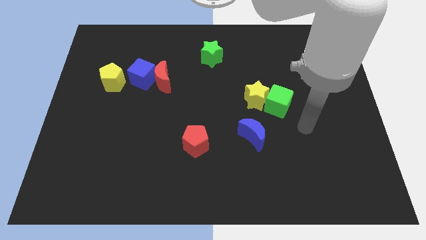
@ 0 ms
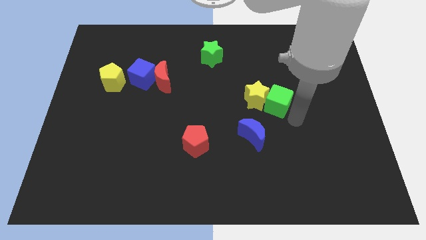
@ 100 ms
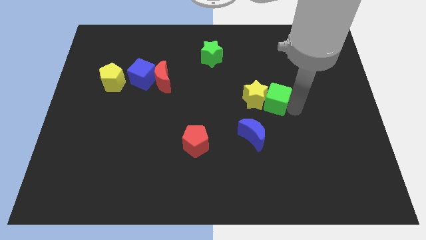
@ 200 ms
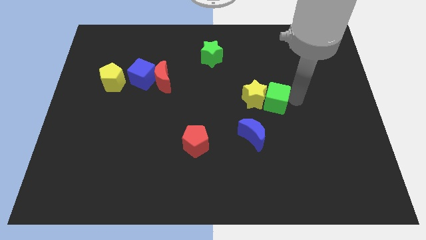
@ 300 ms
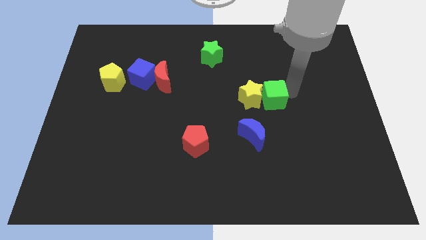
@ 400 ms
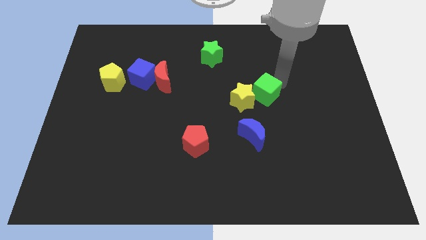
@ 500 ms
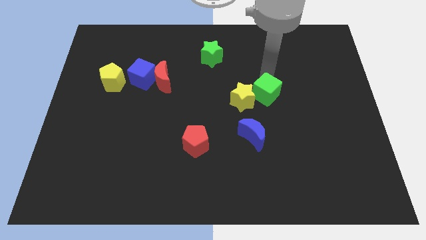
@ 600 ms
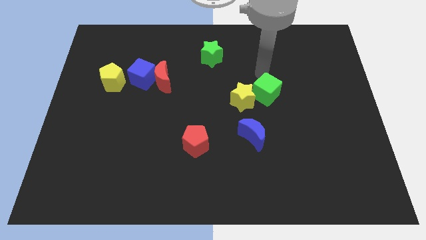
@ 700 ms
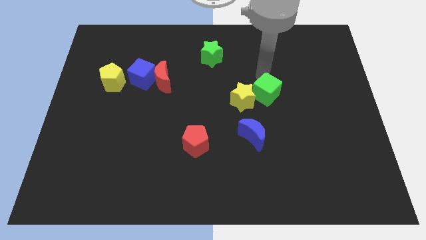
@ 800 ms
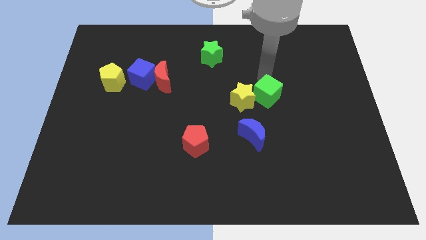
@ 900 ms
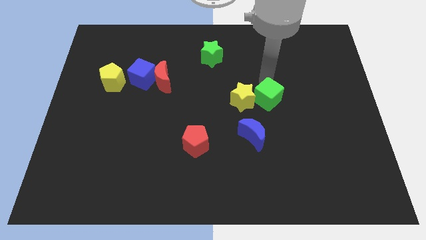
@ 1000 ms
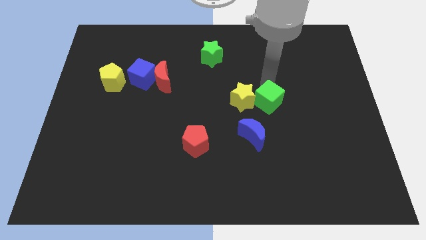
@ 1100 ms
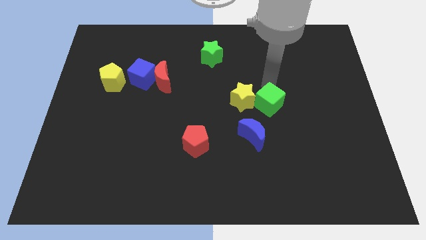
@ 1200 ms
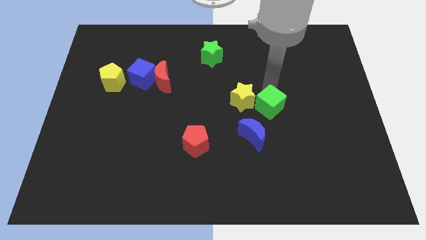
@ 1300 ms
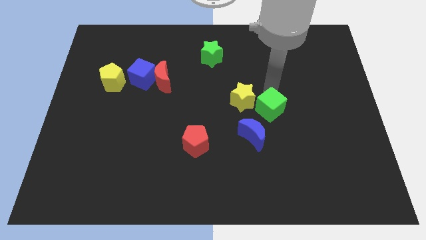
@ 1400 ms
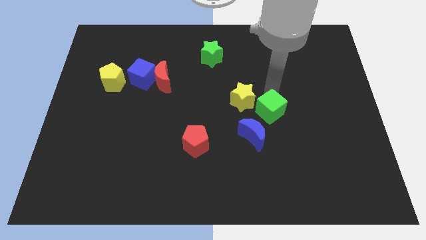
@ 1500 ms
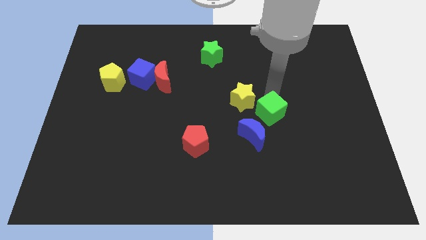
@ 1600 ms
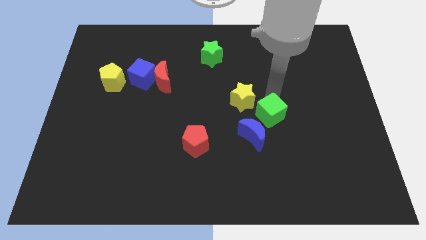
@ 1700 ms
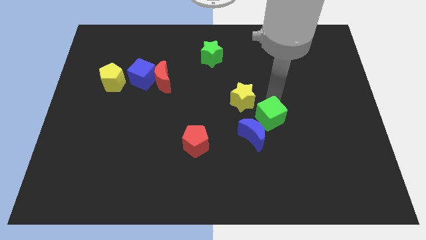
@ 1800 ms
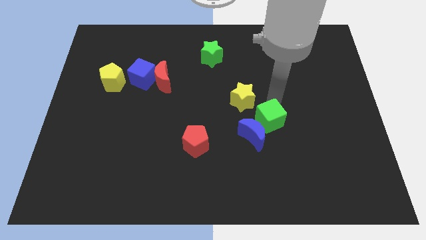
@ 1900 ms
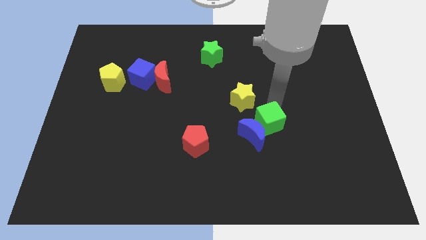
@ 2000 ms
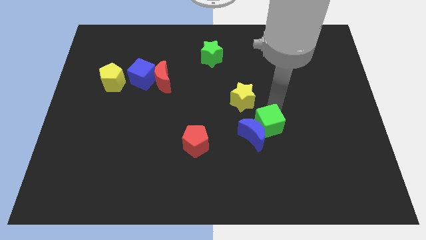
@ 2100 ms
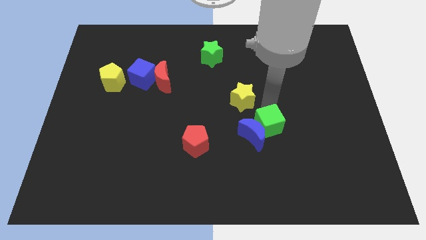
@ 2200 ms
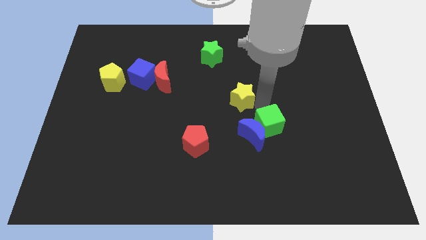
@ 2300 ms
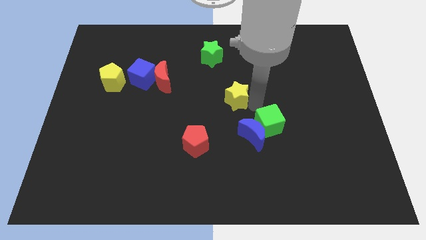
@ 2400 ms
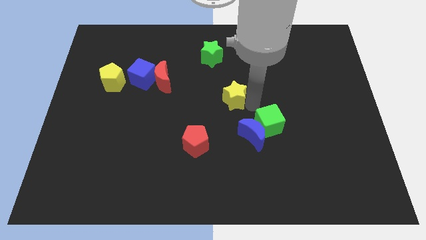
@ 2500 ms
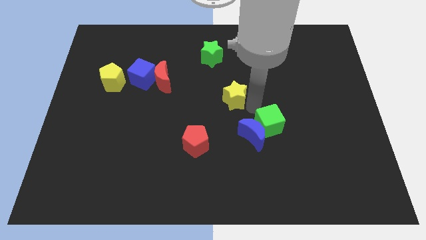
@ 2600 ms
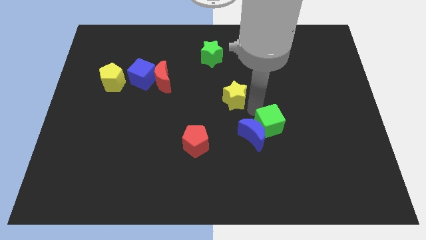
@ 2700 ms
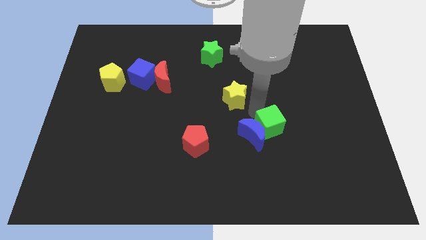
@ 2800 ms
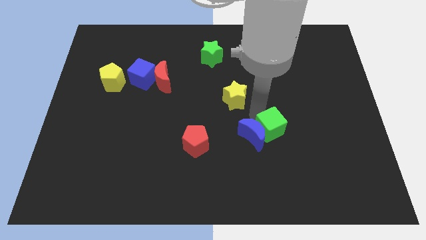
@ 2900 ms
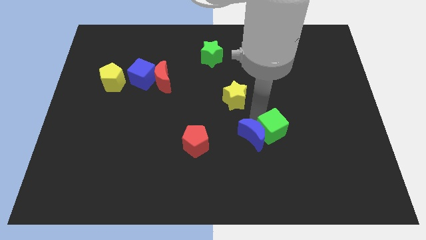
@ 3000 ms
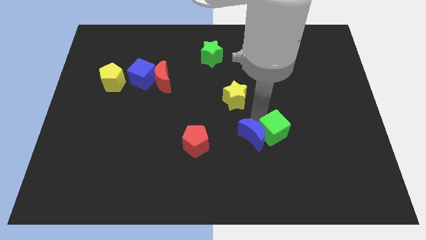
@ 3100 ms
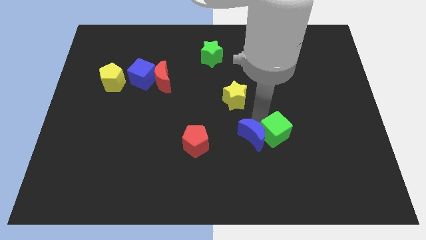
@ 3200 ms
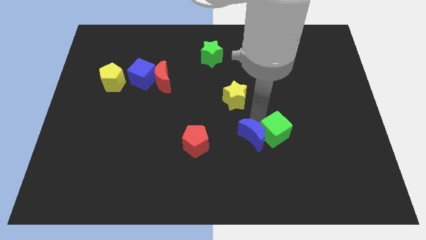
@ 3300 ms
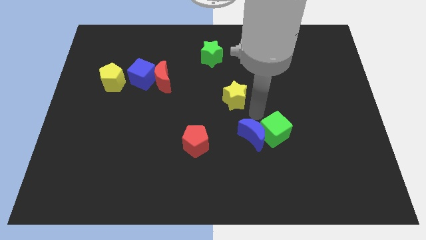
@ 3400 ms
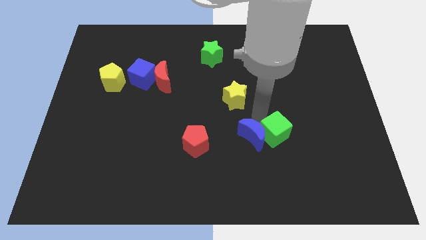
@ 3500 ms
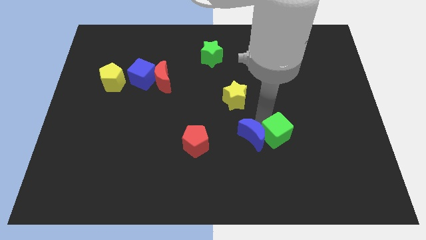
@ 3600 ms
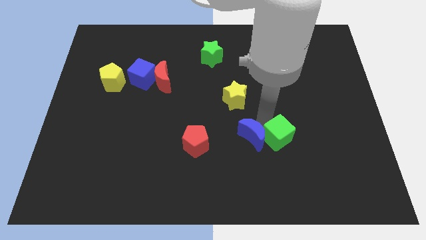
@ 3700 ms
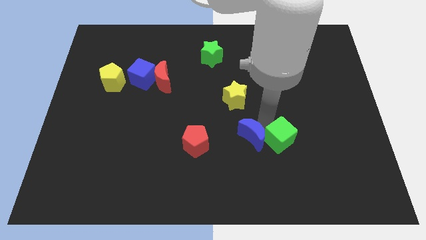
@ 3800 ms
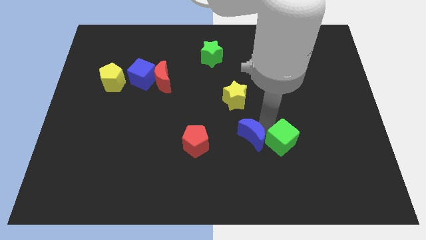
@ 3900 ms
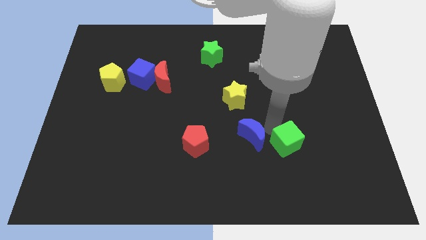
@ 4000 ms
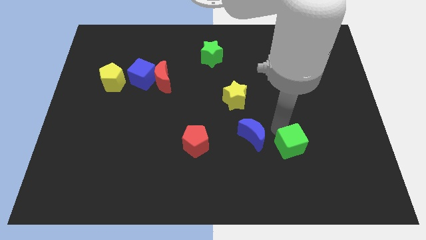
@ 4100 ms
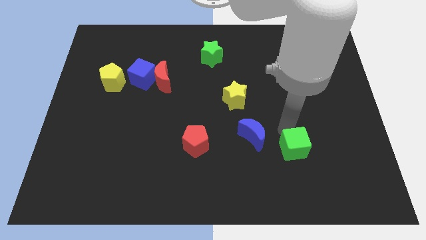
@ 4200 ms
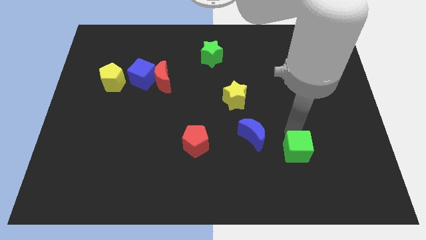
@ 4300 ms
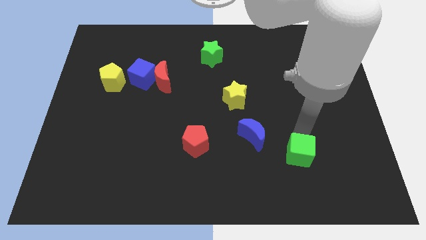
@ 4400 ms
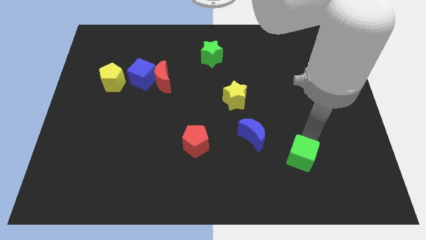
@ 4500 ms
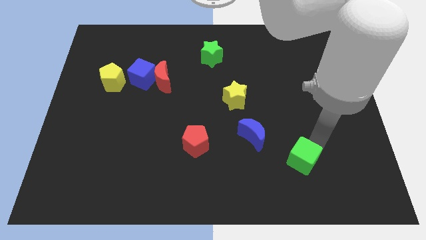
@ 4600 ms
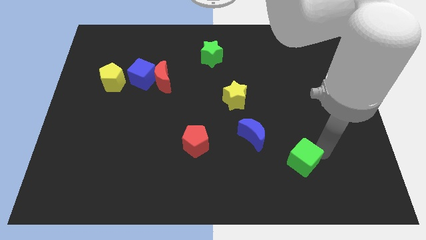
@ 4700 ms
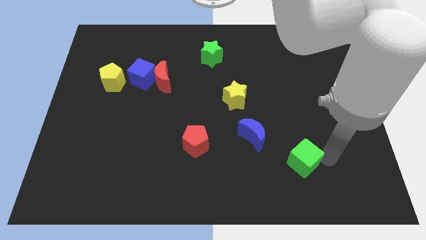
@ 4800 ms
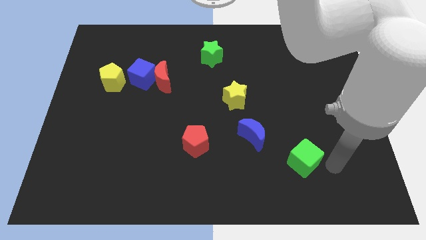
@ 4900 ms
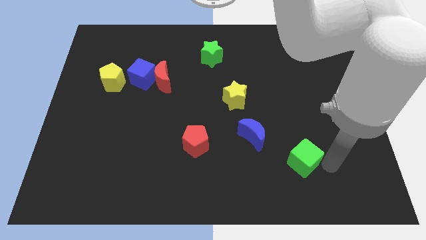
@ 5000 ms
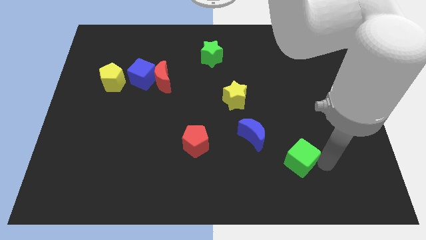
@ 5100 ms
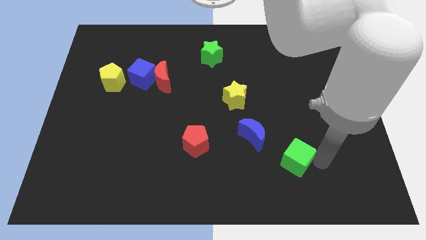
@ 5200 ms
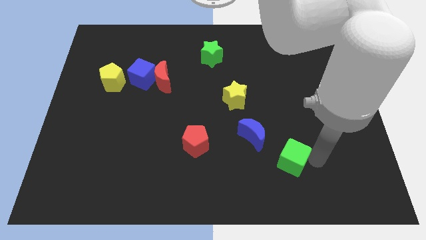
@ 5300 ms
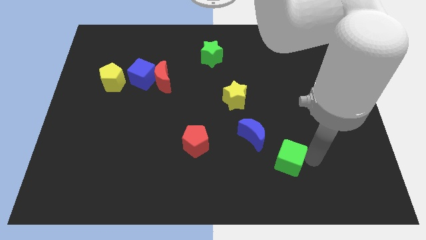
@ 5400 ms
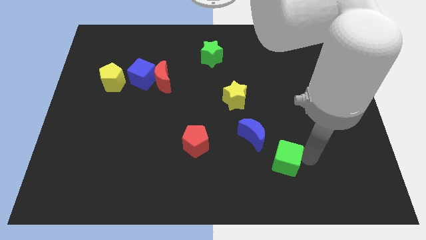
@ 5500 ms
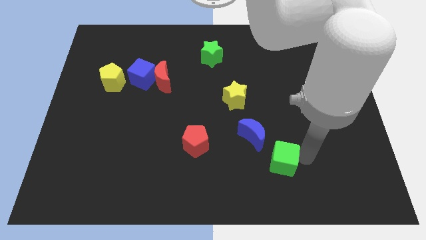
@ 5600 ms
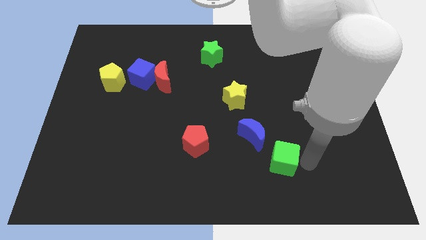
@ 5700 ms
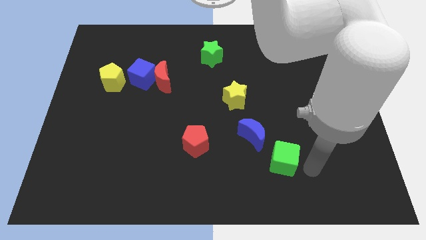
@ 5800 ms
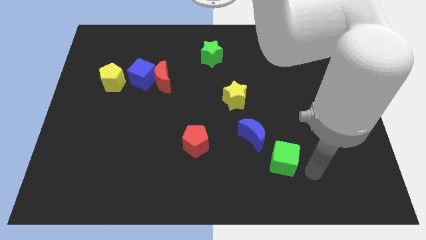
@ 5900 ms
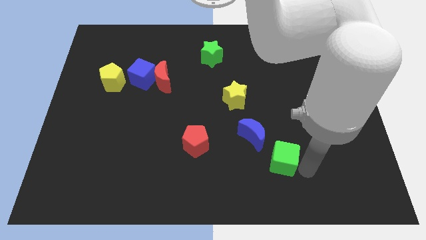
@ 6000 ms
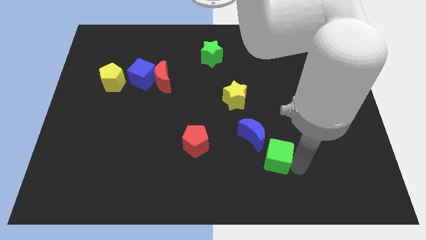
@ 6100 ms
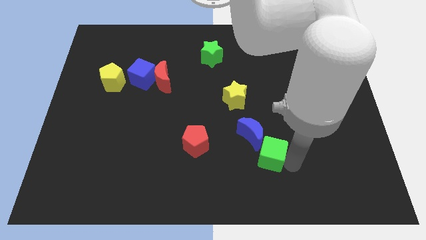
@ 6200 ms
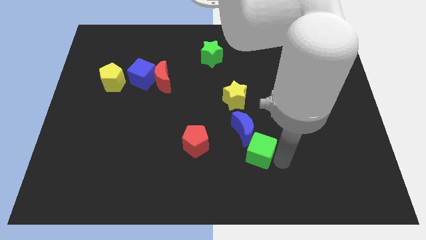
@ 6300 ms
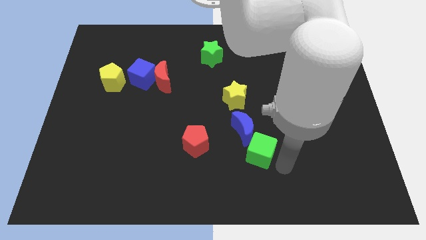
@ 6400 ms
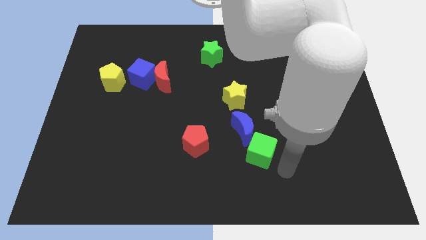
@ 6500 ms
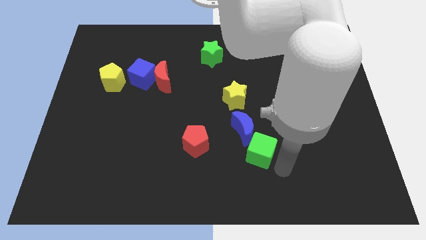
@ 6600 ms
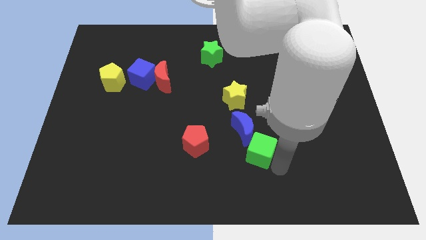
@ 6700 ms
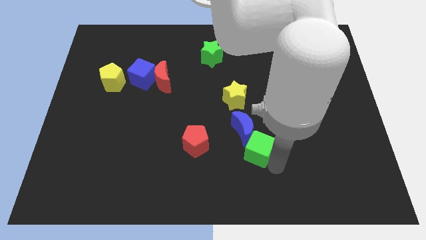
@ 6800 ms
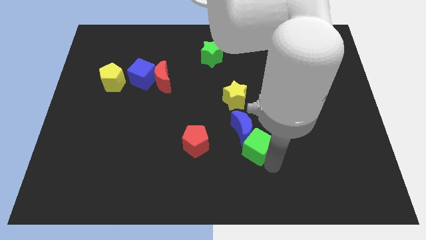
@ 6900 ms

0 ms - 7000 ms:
push the green cube below the yellow star

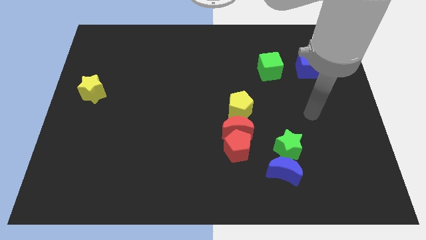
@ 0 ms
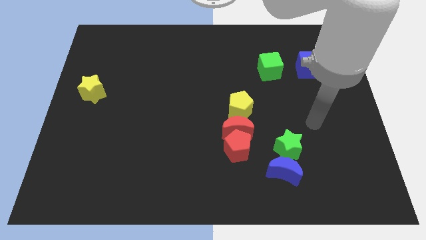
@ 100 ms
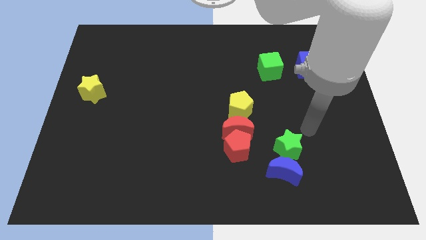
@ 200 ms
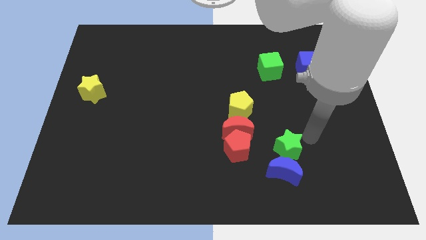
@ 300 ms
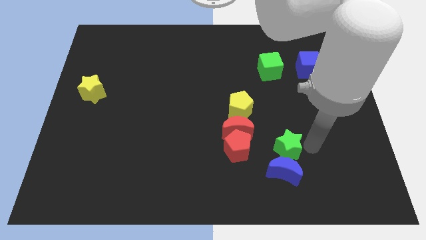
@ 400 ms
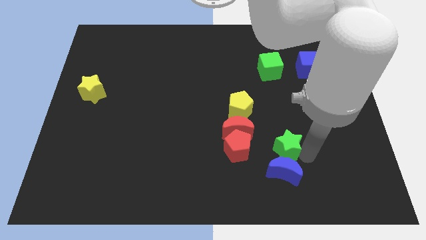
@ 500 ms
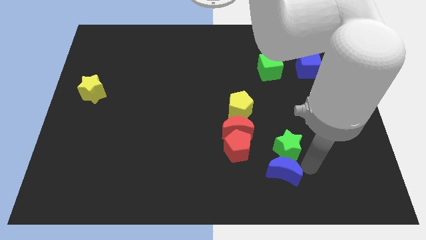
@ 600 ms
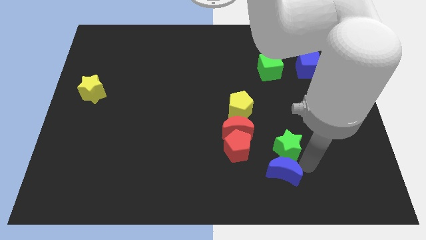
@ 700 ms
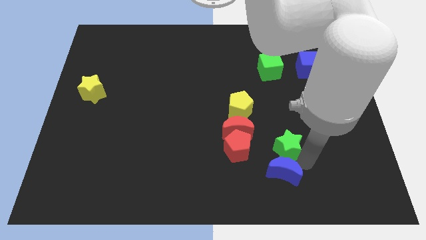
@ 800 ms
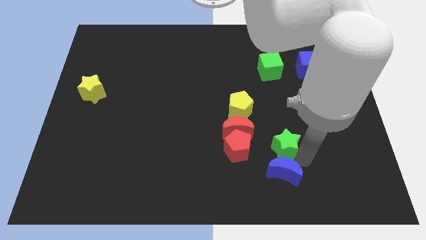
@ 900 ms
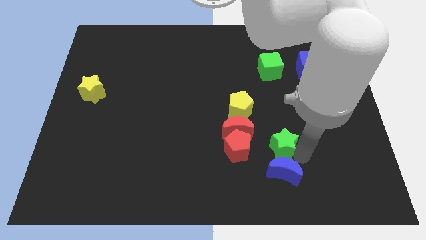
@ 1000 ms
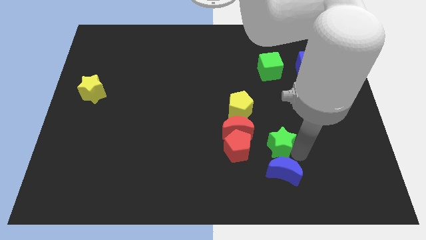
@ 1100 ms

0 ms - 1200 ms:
move the green star to the bottom right side of the yellow pentagon

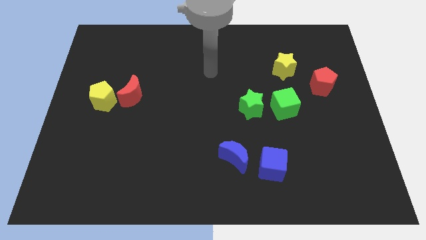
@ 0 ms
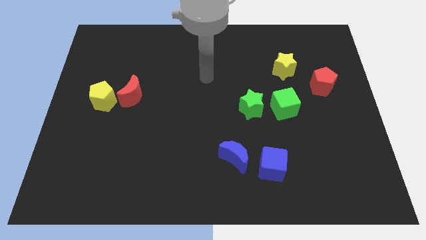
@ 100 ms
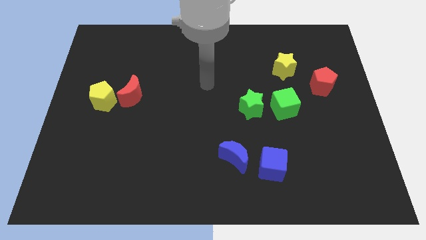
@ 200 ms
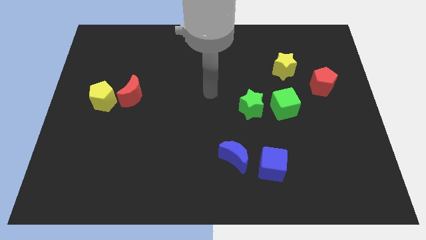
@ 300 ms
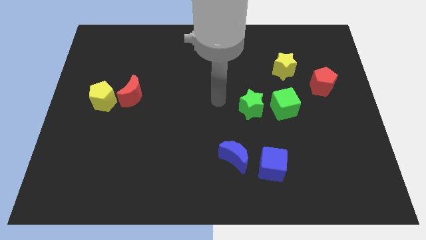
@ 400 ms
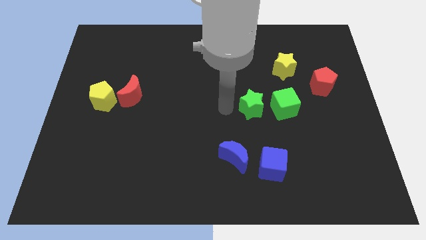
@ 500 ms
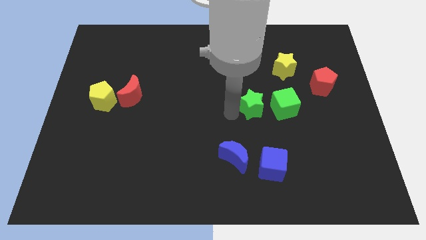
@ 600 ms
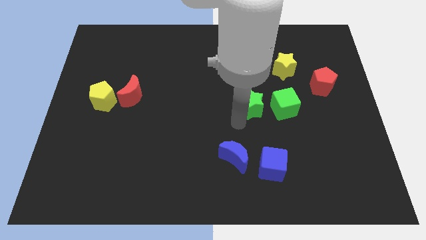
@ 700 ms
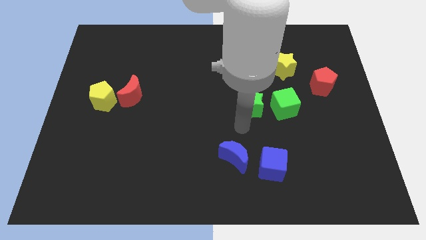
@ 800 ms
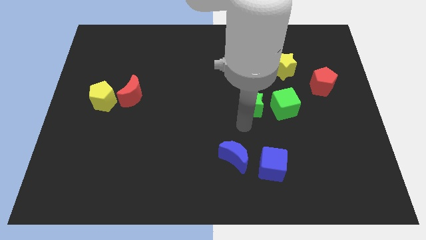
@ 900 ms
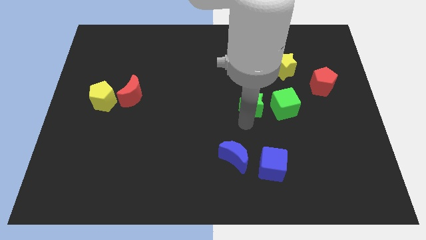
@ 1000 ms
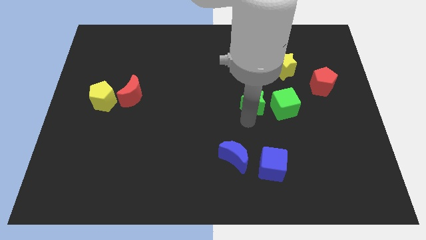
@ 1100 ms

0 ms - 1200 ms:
put the green star diagonally up and to the left of the green cube
